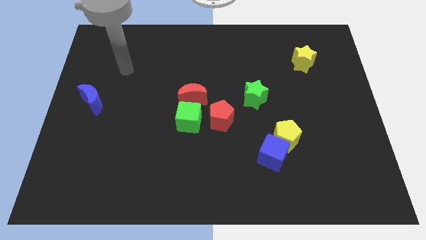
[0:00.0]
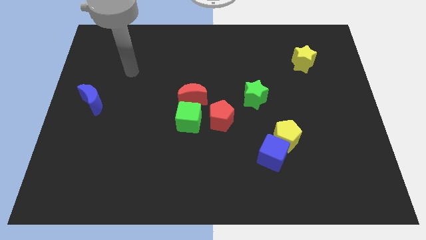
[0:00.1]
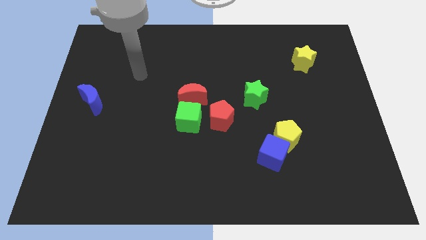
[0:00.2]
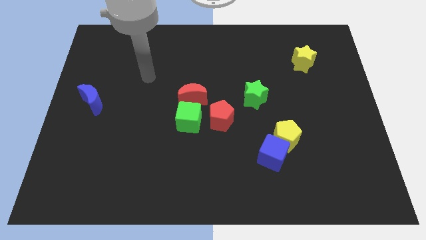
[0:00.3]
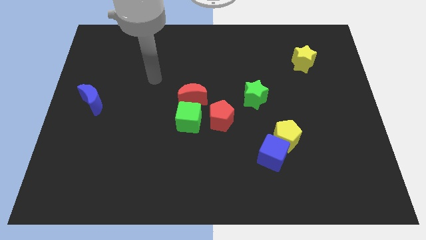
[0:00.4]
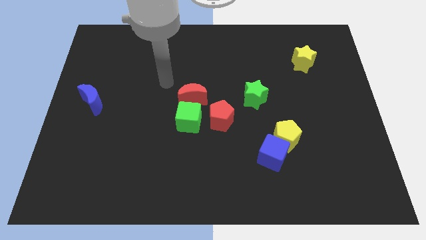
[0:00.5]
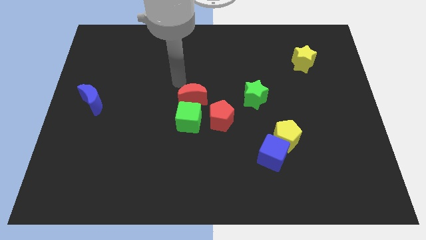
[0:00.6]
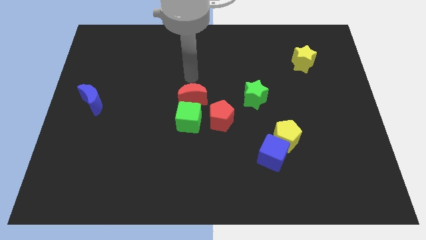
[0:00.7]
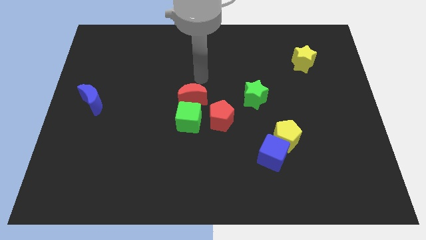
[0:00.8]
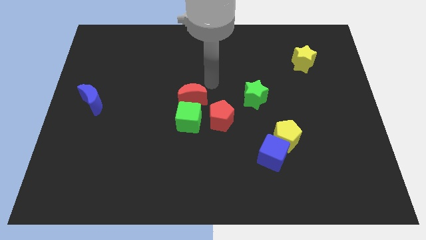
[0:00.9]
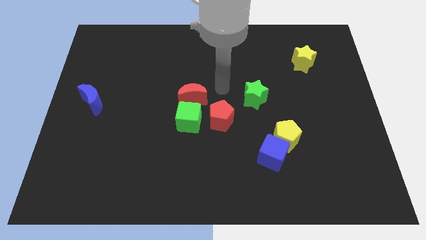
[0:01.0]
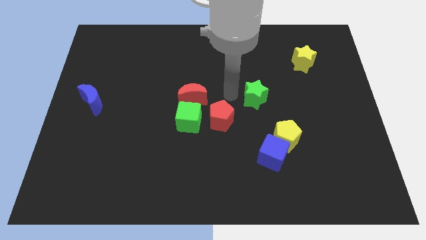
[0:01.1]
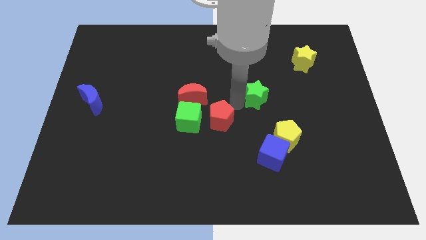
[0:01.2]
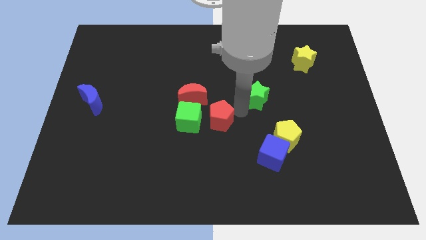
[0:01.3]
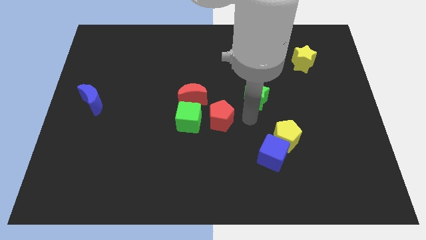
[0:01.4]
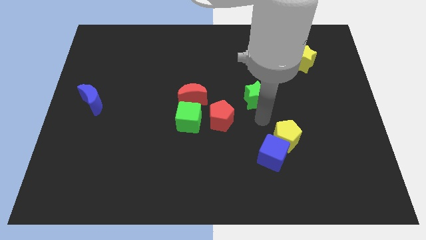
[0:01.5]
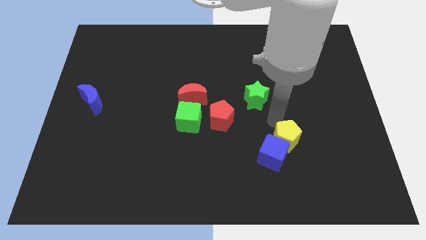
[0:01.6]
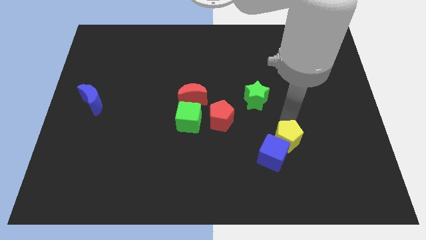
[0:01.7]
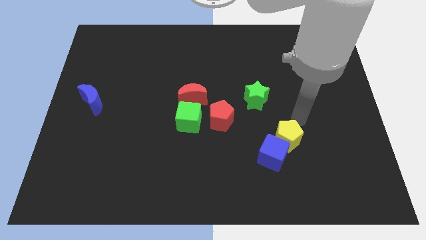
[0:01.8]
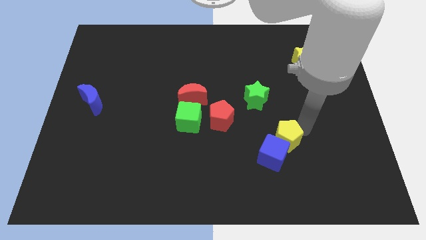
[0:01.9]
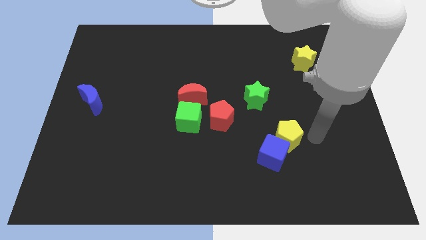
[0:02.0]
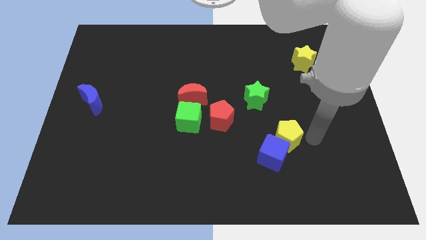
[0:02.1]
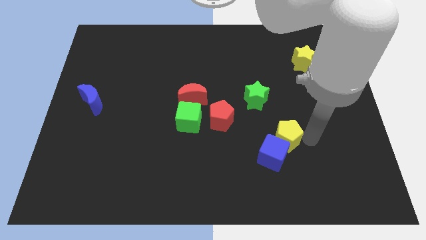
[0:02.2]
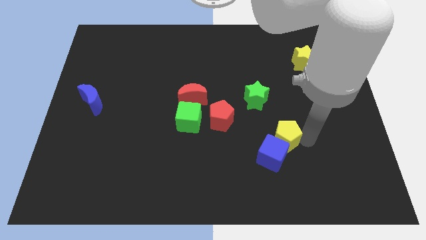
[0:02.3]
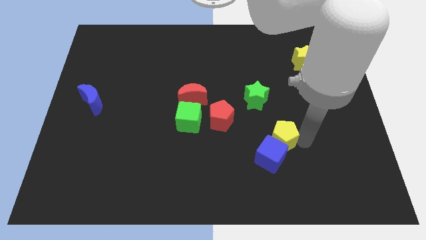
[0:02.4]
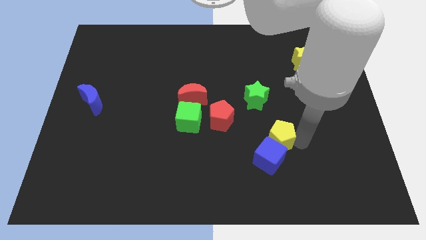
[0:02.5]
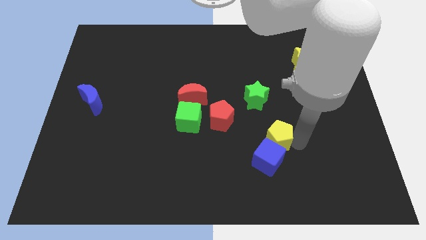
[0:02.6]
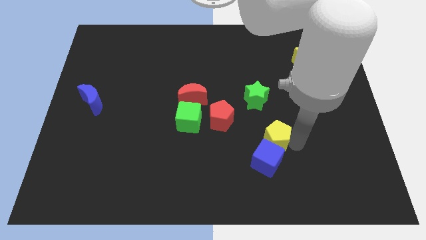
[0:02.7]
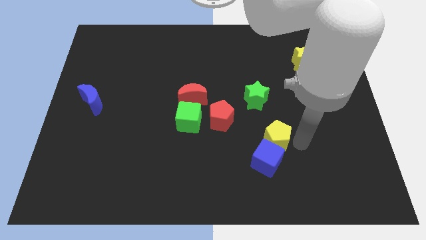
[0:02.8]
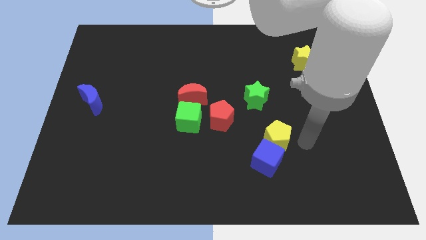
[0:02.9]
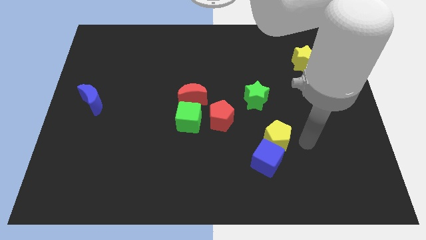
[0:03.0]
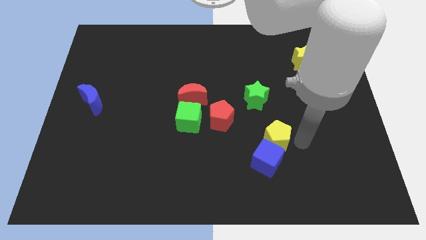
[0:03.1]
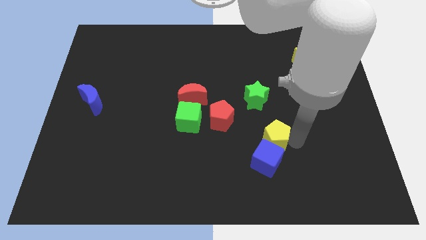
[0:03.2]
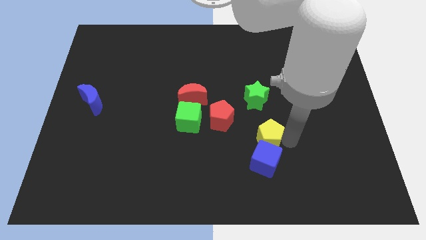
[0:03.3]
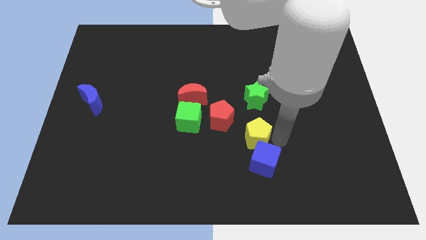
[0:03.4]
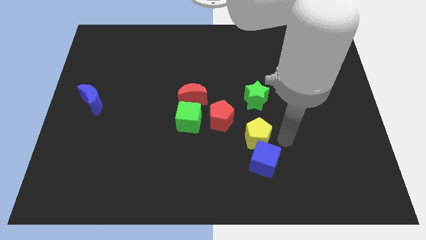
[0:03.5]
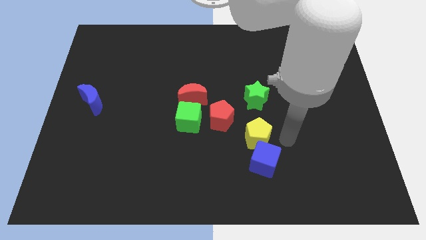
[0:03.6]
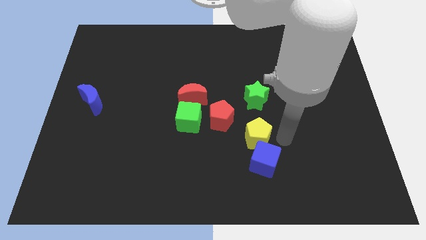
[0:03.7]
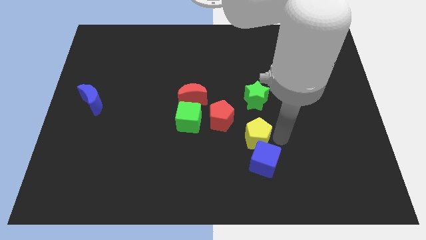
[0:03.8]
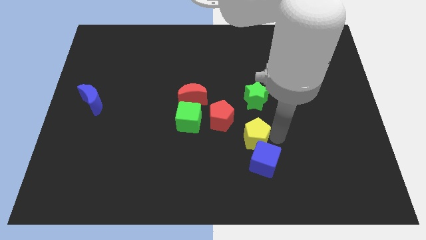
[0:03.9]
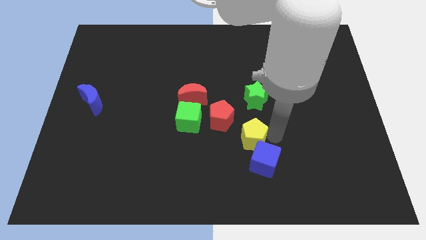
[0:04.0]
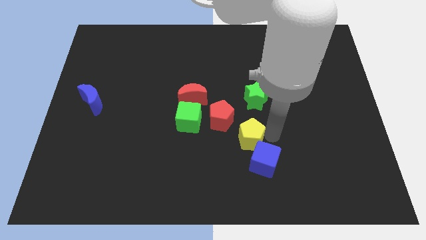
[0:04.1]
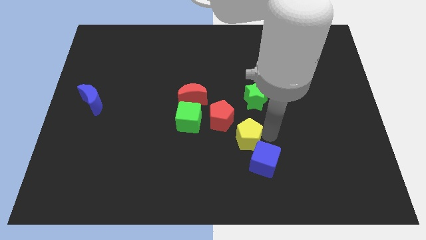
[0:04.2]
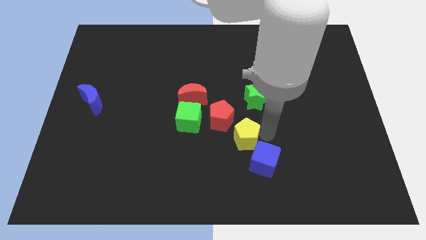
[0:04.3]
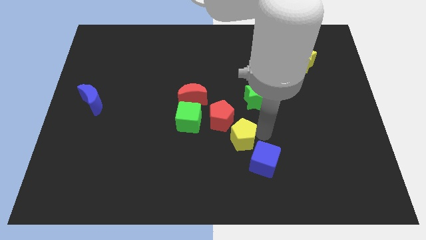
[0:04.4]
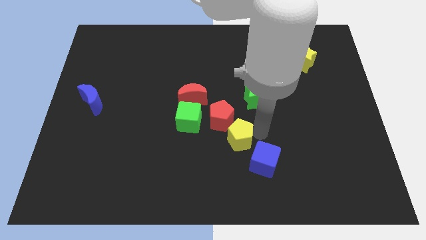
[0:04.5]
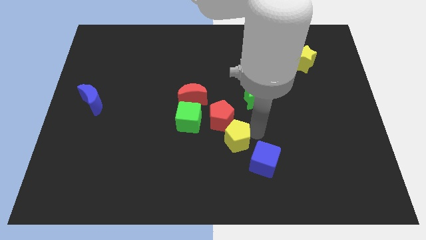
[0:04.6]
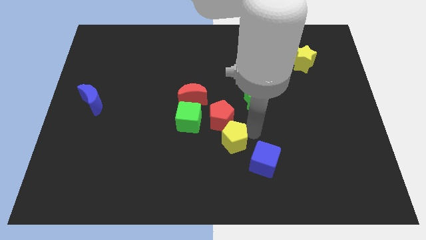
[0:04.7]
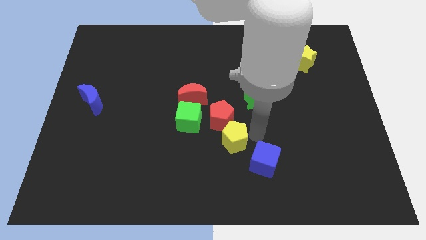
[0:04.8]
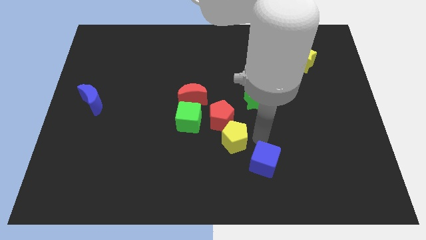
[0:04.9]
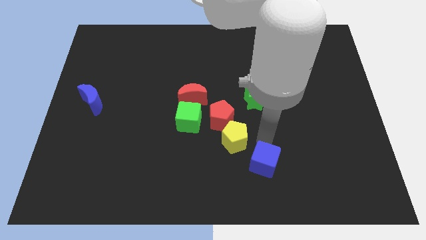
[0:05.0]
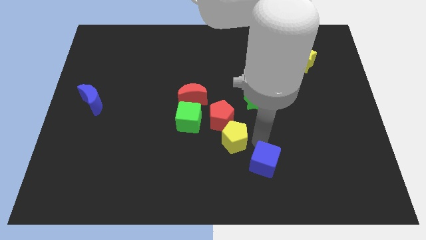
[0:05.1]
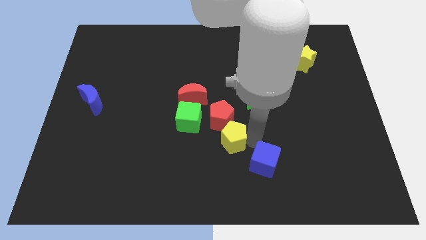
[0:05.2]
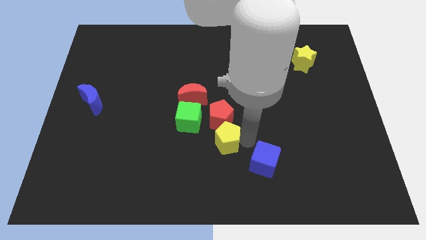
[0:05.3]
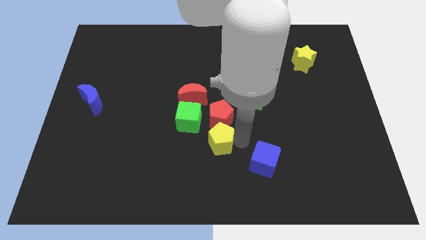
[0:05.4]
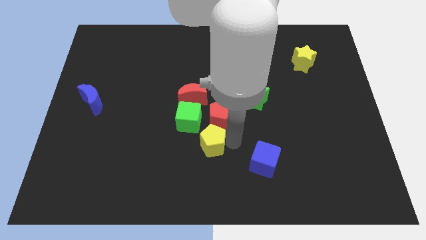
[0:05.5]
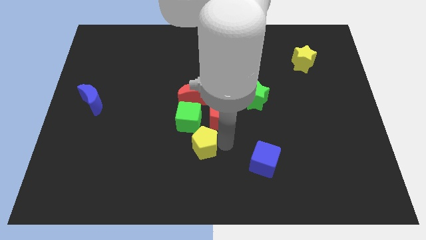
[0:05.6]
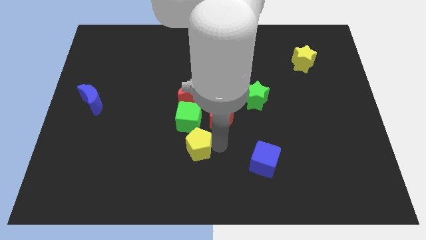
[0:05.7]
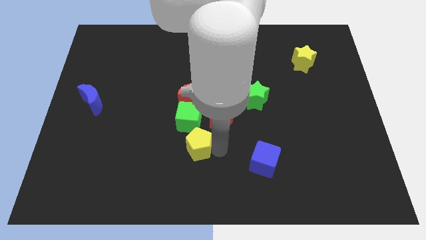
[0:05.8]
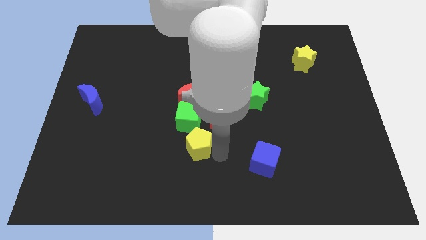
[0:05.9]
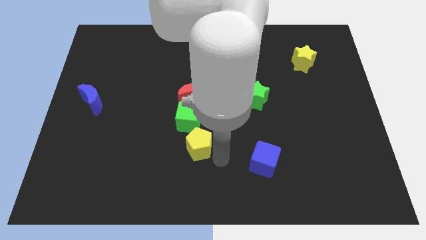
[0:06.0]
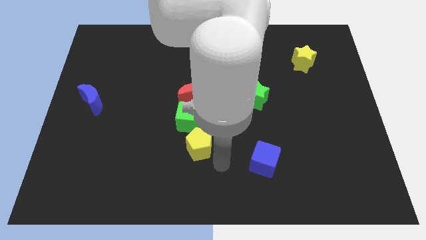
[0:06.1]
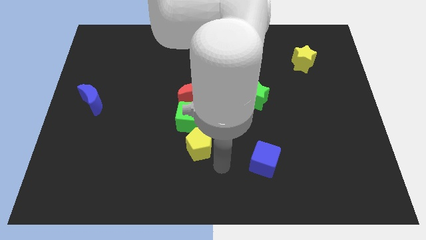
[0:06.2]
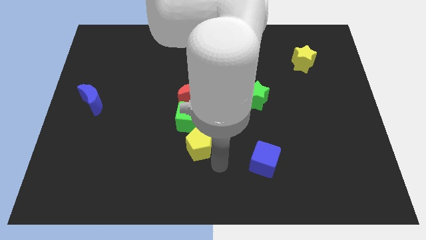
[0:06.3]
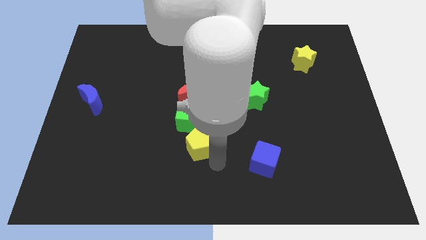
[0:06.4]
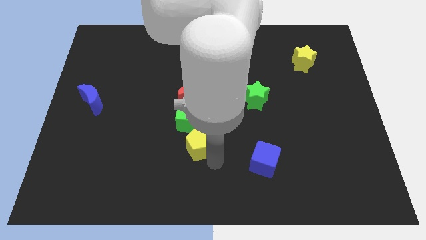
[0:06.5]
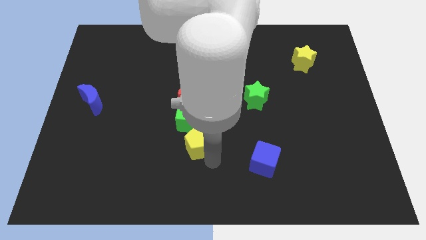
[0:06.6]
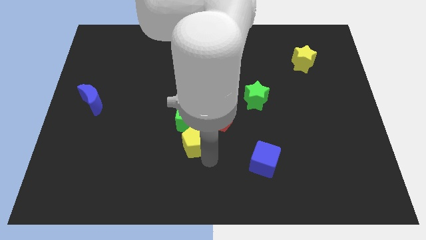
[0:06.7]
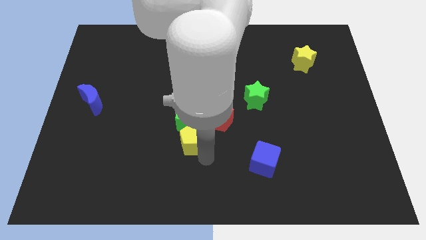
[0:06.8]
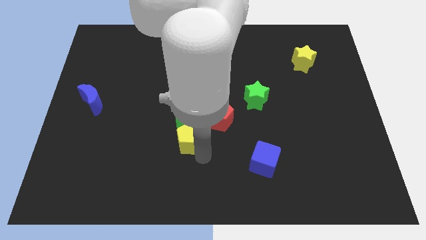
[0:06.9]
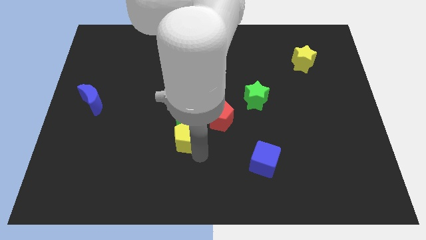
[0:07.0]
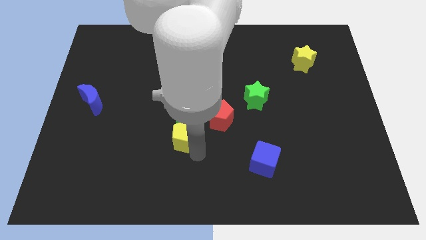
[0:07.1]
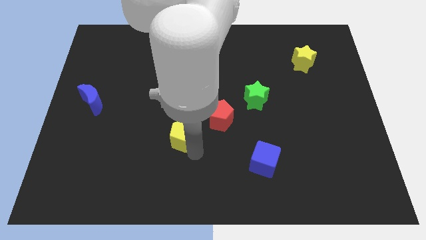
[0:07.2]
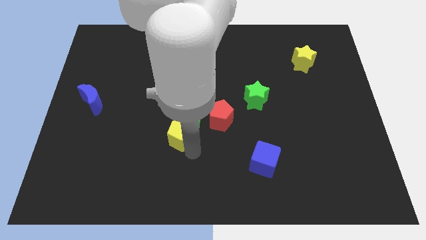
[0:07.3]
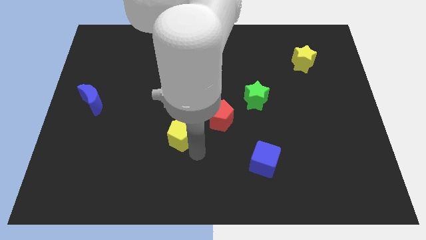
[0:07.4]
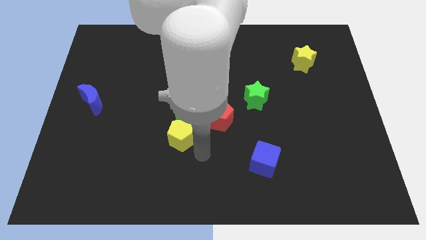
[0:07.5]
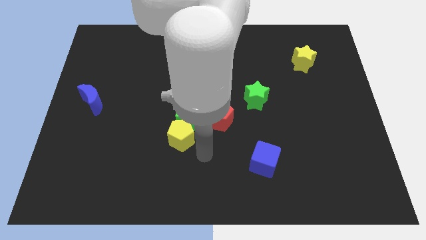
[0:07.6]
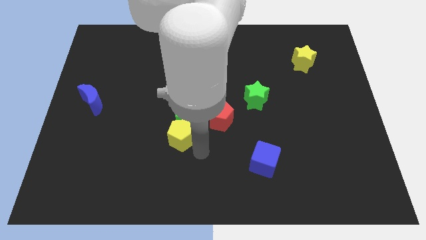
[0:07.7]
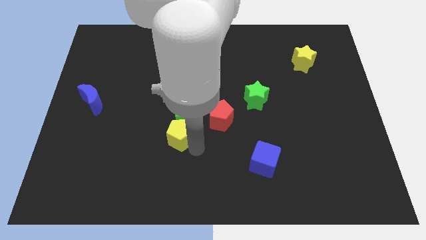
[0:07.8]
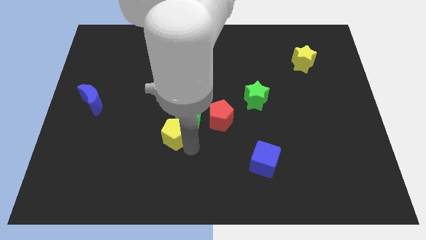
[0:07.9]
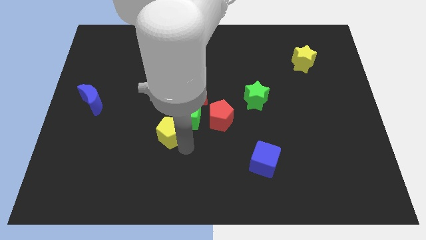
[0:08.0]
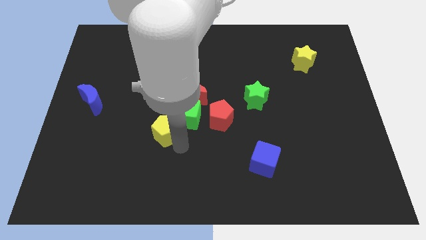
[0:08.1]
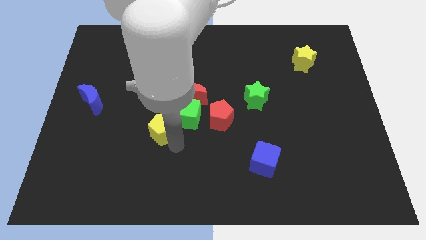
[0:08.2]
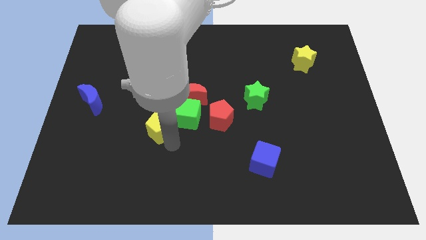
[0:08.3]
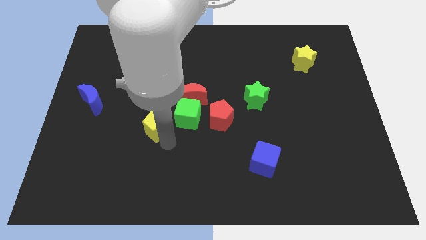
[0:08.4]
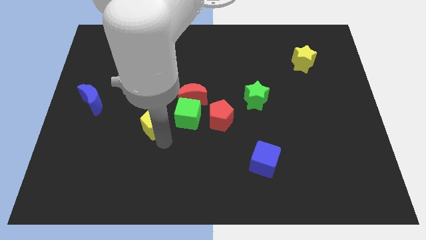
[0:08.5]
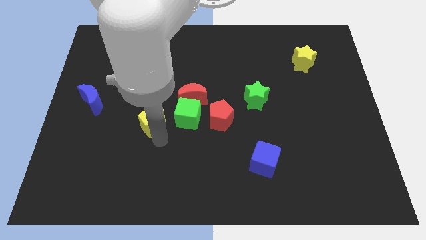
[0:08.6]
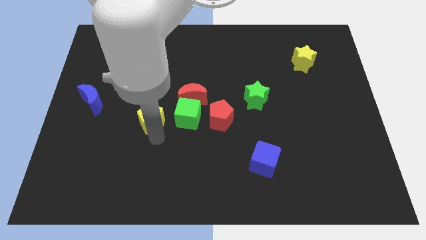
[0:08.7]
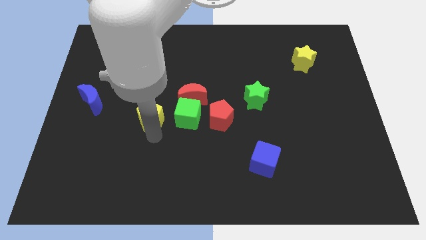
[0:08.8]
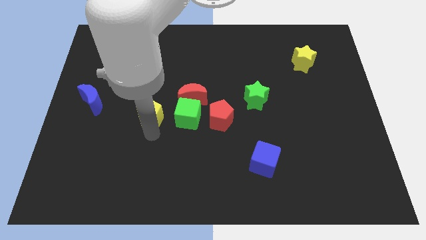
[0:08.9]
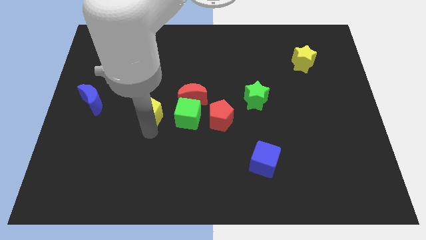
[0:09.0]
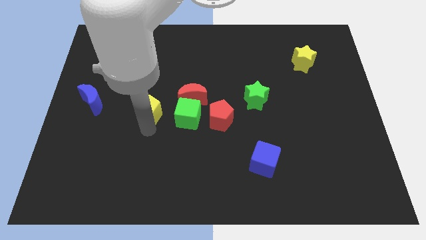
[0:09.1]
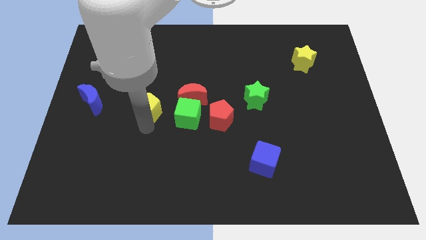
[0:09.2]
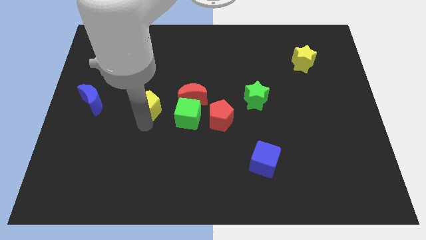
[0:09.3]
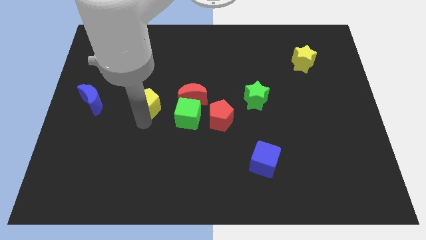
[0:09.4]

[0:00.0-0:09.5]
slide the yellow pentagon to the top left of the green cube
